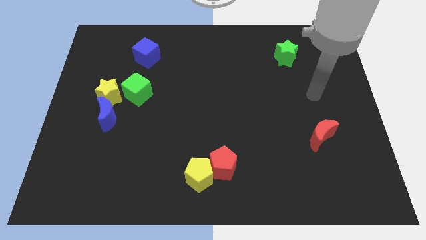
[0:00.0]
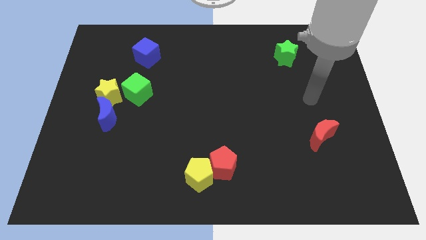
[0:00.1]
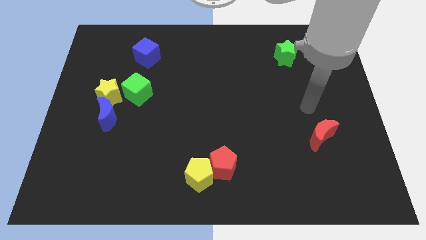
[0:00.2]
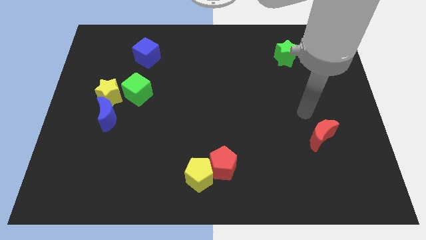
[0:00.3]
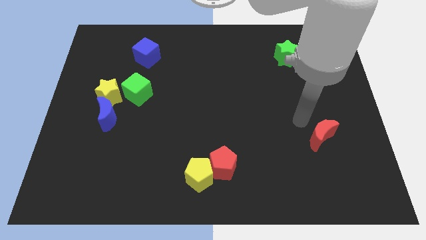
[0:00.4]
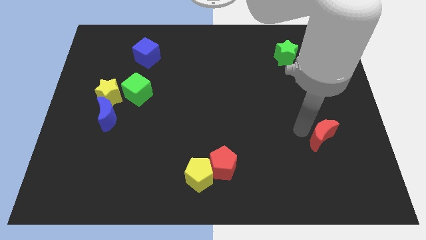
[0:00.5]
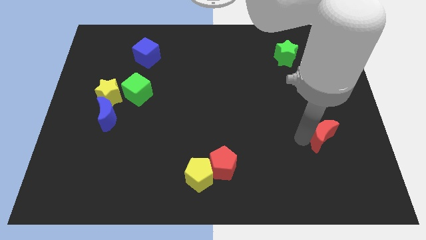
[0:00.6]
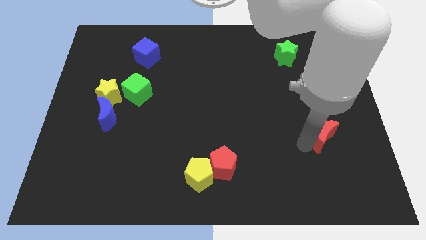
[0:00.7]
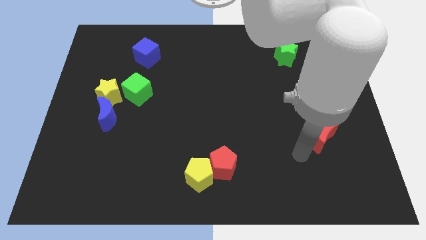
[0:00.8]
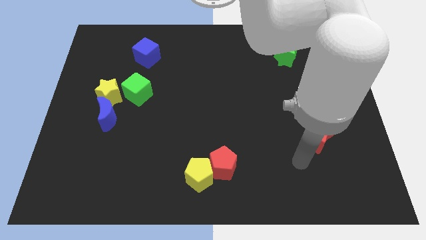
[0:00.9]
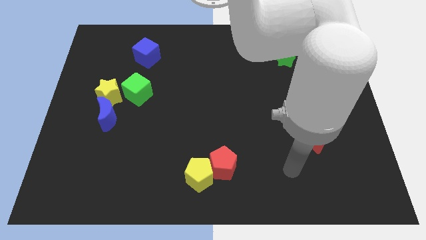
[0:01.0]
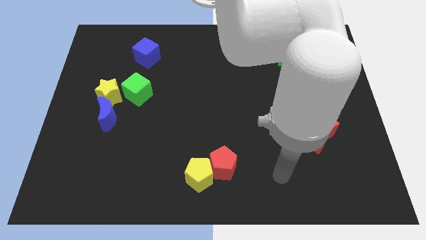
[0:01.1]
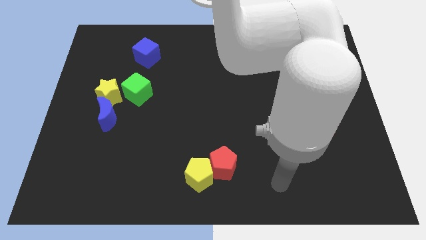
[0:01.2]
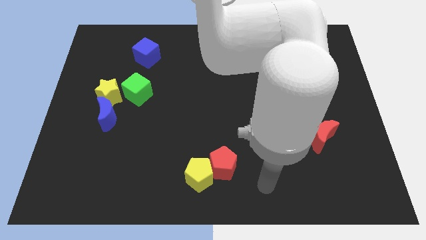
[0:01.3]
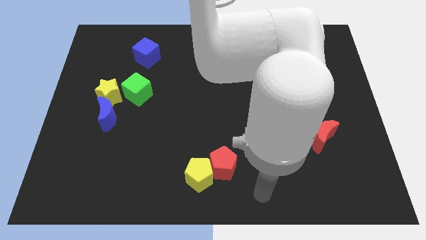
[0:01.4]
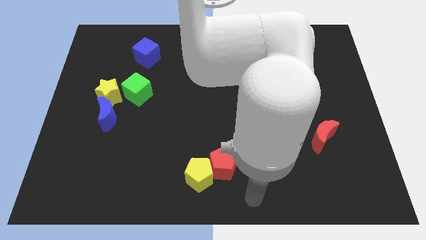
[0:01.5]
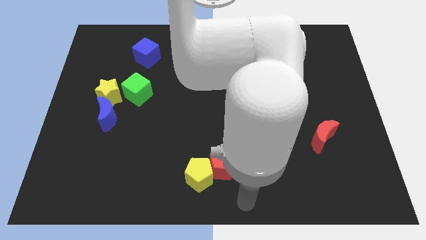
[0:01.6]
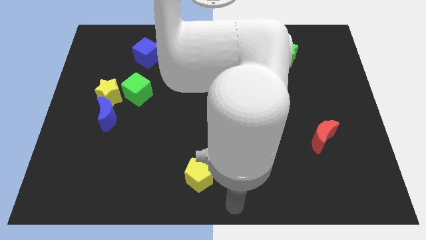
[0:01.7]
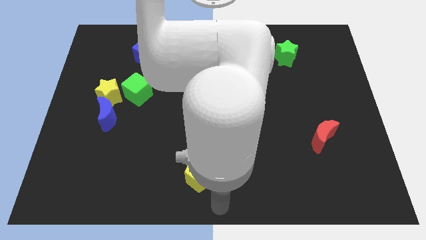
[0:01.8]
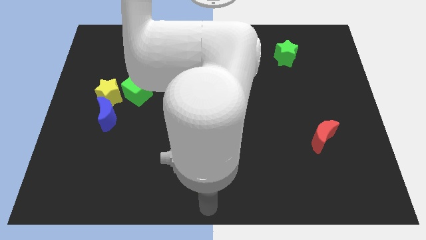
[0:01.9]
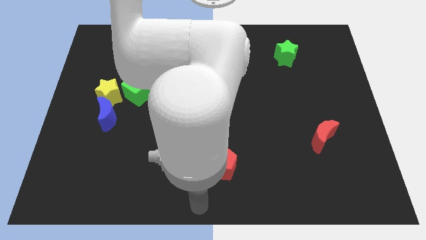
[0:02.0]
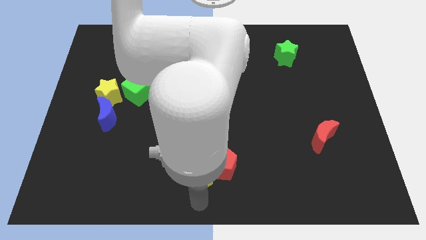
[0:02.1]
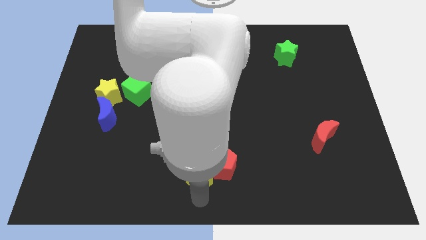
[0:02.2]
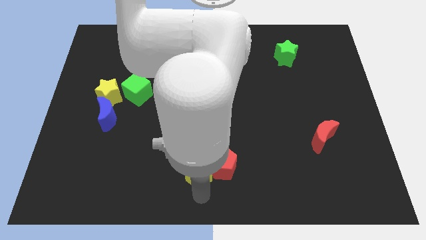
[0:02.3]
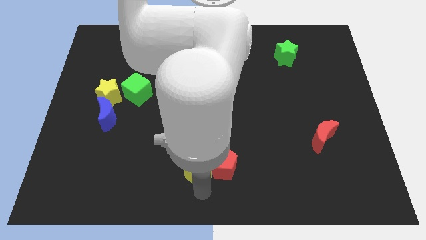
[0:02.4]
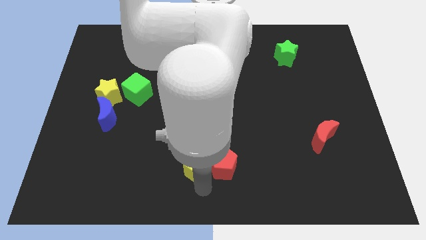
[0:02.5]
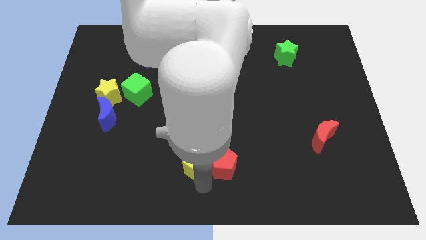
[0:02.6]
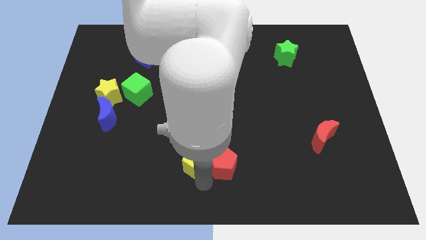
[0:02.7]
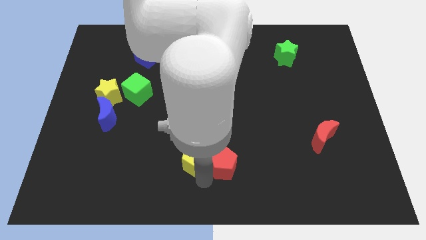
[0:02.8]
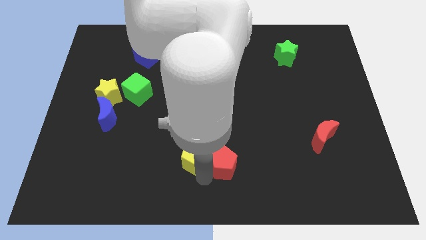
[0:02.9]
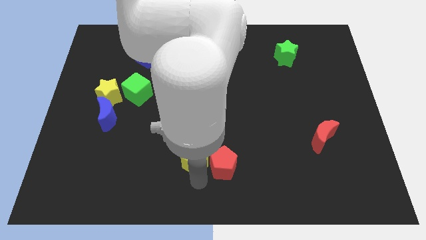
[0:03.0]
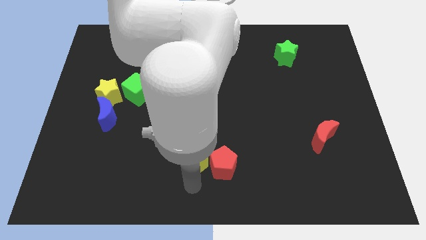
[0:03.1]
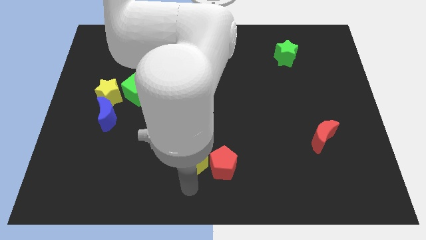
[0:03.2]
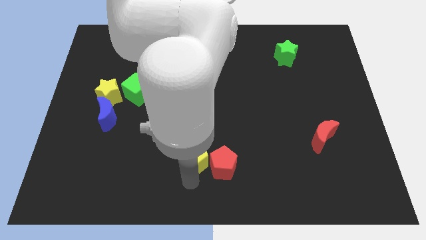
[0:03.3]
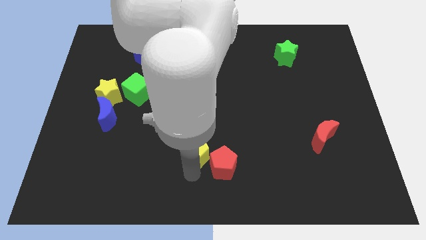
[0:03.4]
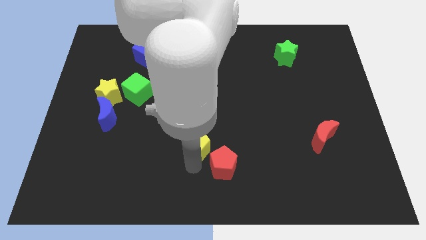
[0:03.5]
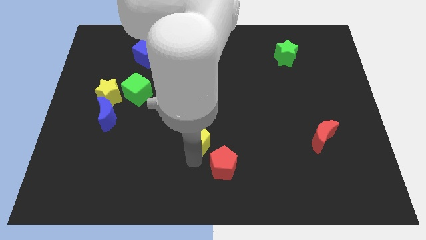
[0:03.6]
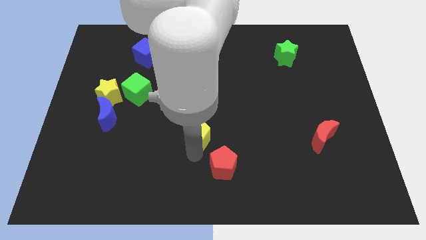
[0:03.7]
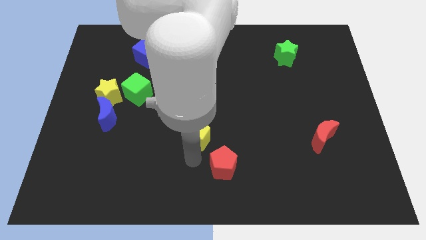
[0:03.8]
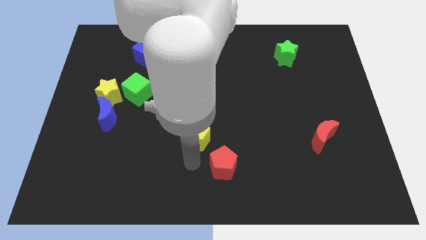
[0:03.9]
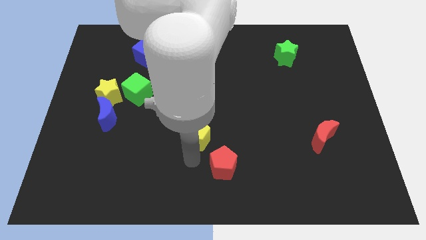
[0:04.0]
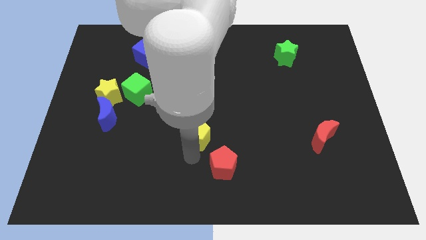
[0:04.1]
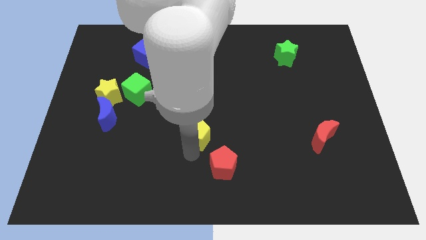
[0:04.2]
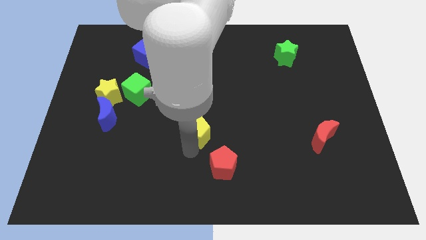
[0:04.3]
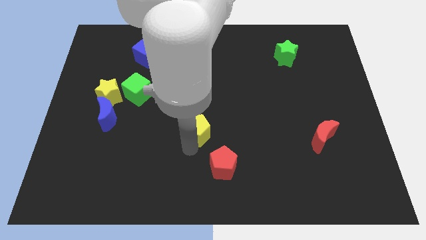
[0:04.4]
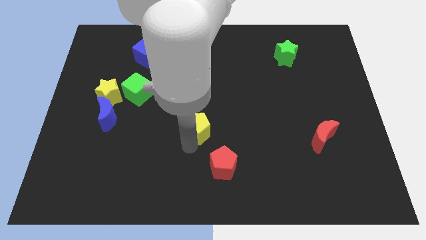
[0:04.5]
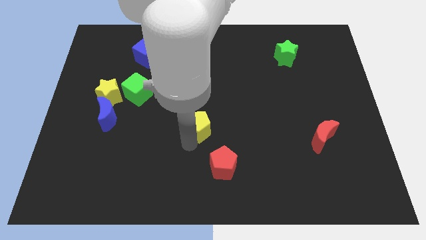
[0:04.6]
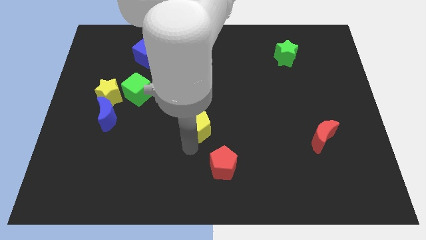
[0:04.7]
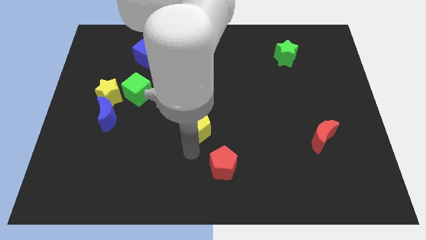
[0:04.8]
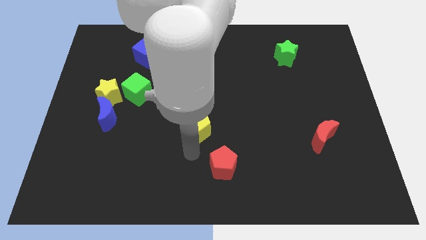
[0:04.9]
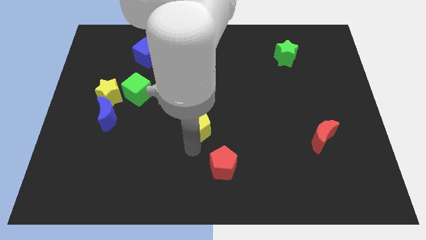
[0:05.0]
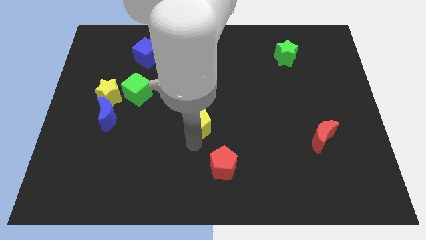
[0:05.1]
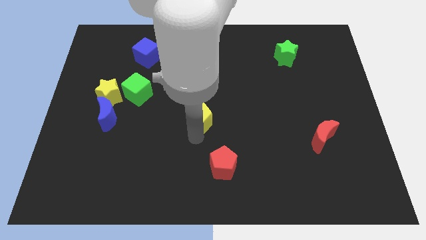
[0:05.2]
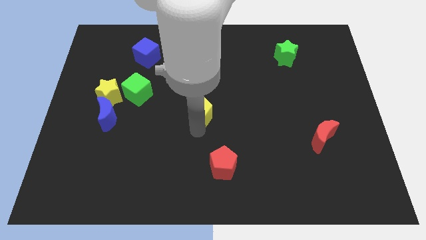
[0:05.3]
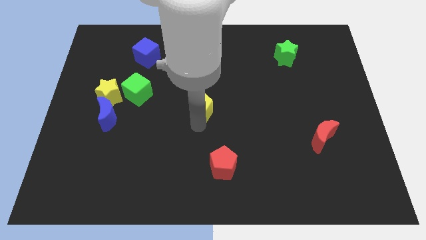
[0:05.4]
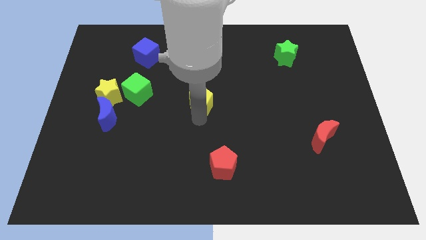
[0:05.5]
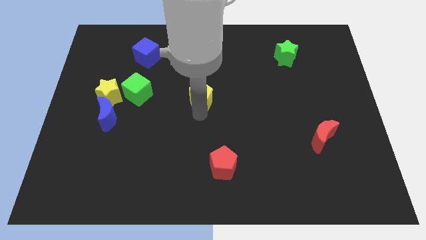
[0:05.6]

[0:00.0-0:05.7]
slide the yellow pentagon up

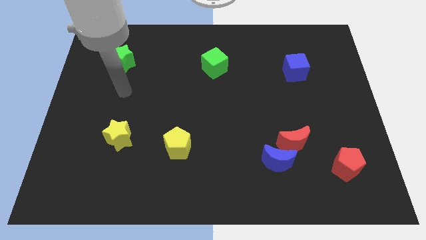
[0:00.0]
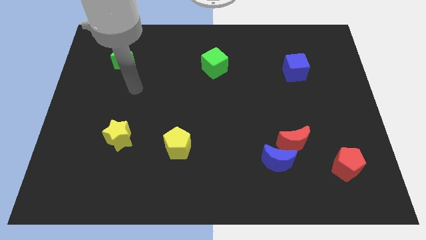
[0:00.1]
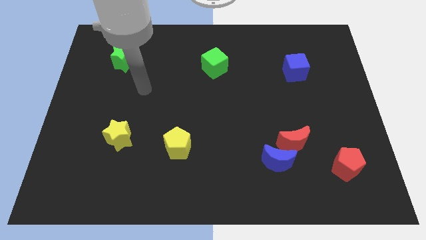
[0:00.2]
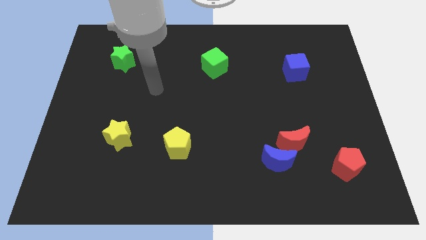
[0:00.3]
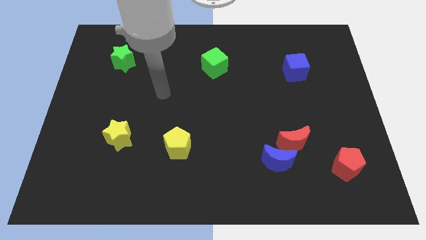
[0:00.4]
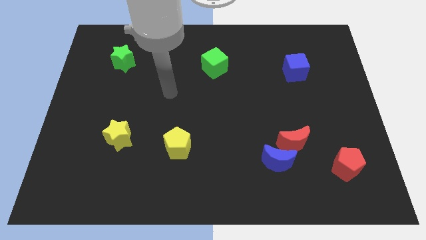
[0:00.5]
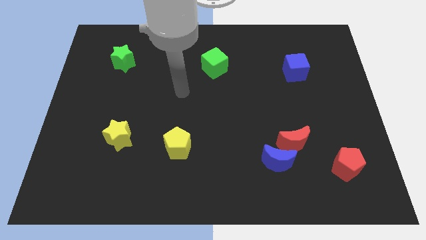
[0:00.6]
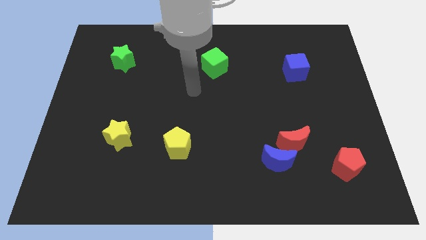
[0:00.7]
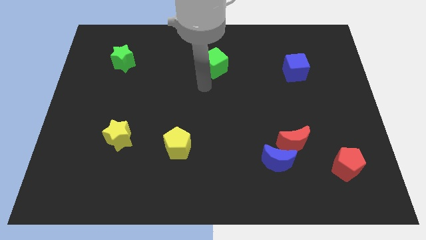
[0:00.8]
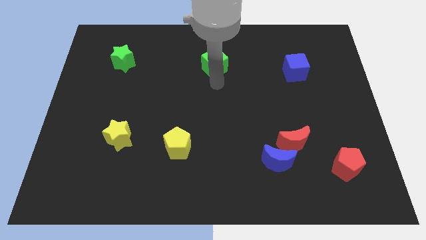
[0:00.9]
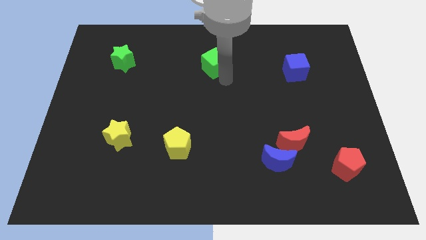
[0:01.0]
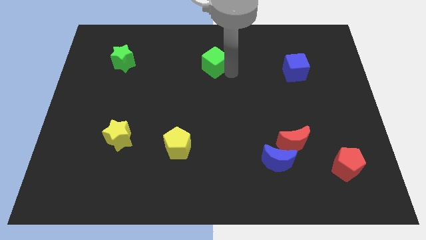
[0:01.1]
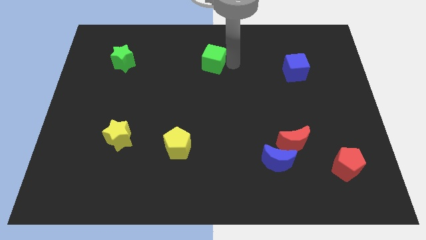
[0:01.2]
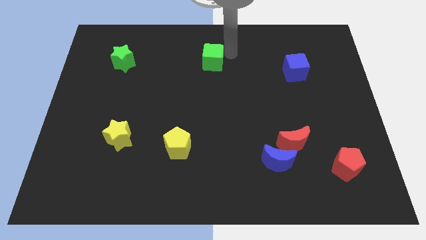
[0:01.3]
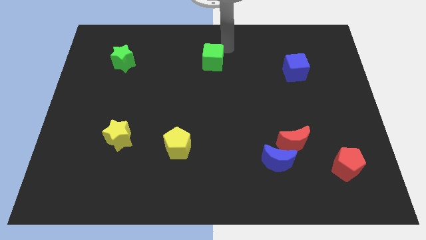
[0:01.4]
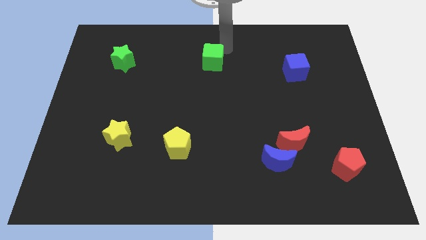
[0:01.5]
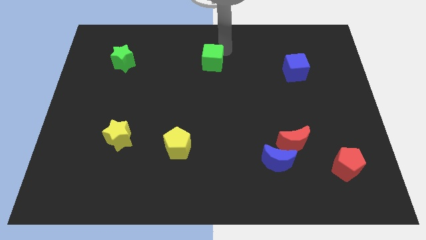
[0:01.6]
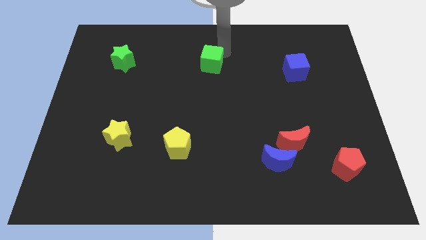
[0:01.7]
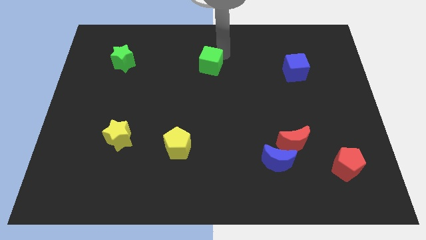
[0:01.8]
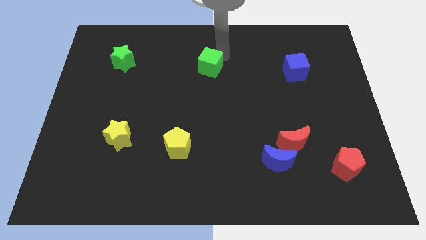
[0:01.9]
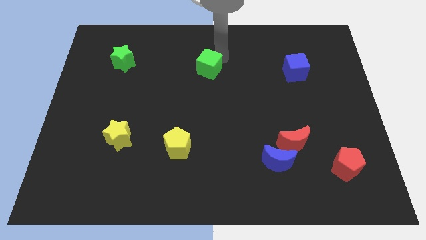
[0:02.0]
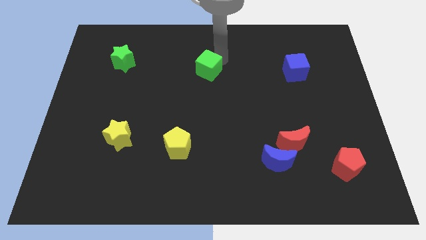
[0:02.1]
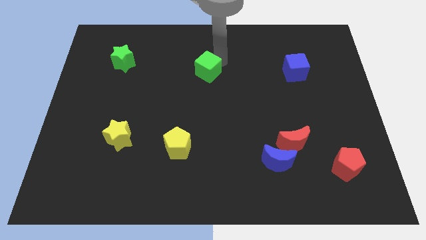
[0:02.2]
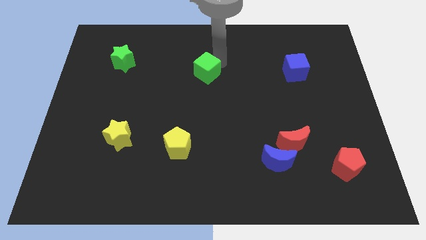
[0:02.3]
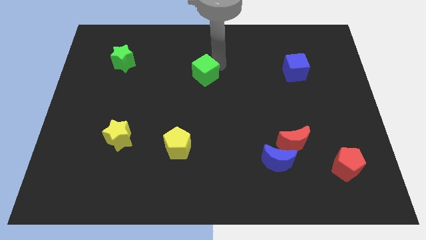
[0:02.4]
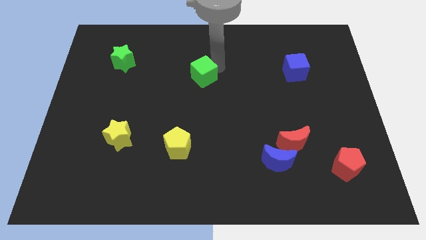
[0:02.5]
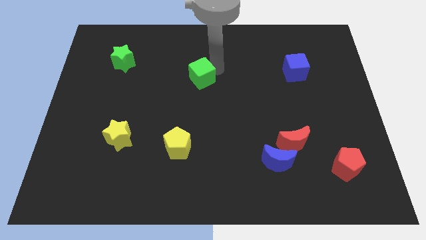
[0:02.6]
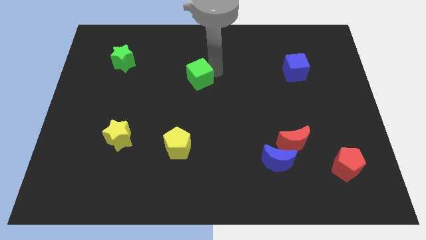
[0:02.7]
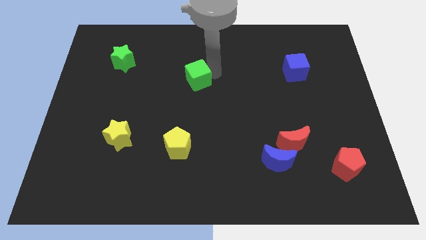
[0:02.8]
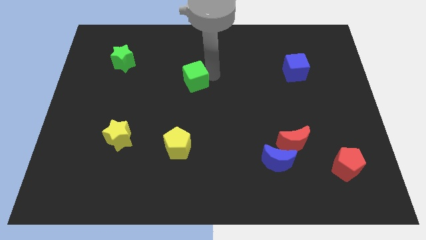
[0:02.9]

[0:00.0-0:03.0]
push the green cube down and then to the left a little
